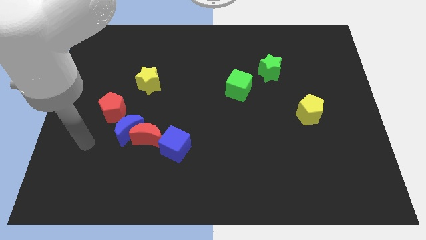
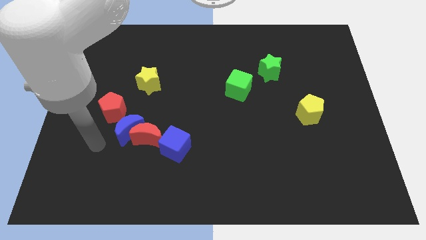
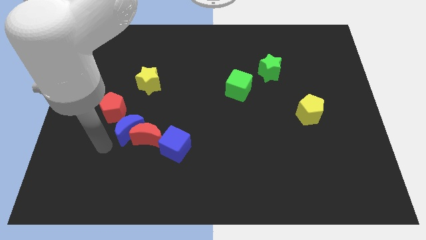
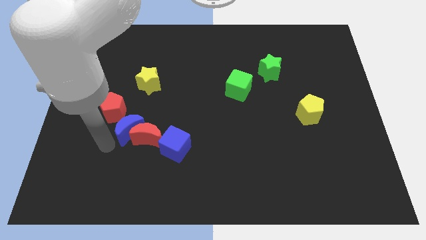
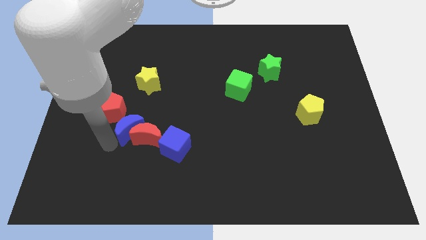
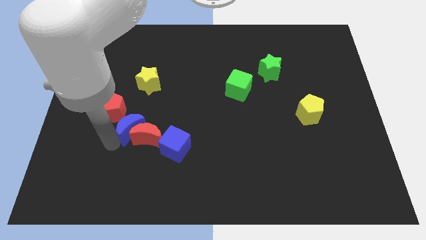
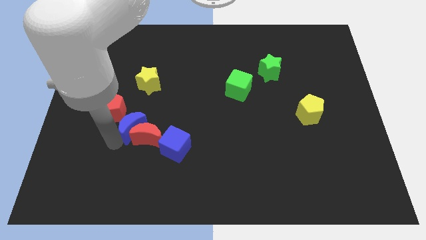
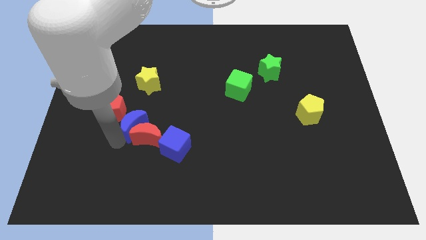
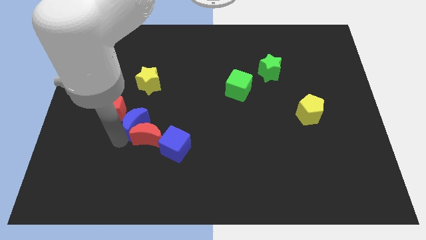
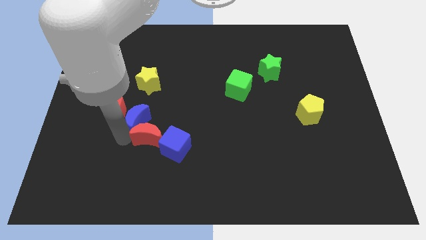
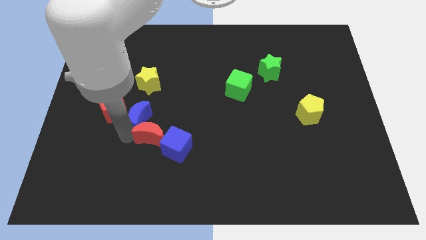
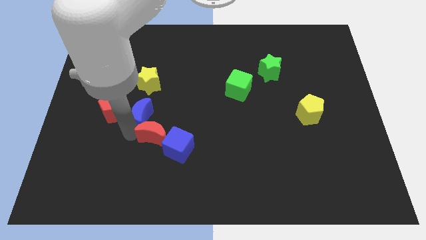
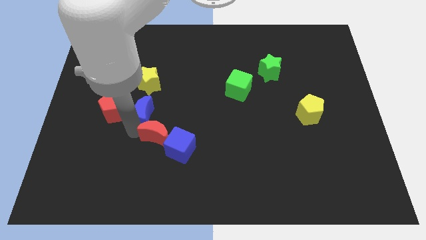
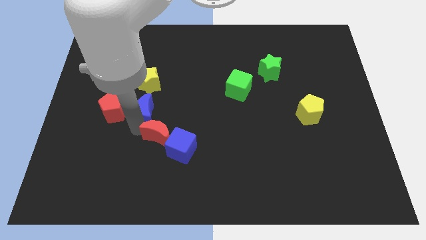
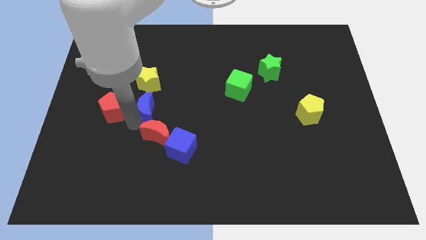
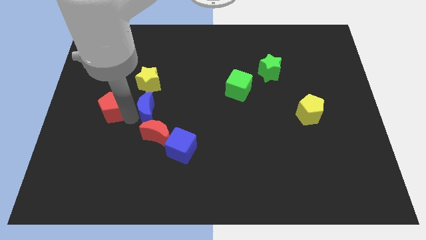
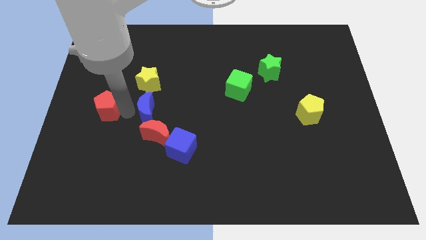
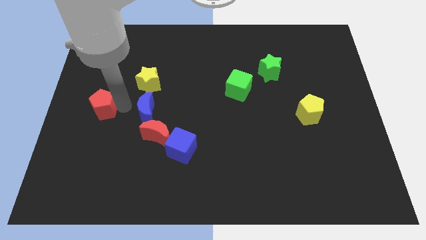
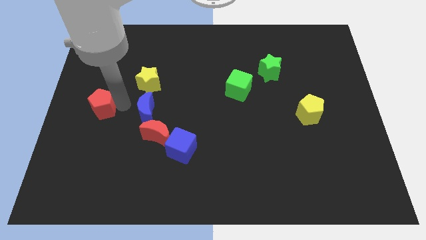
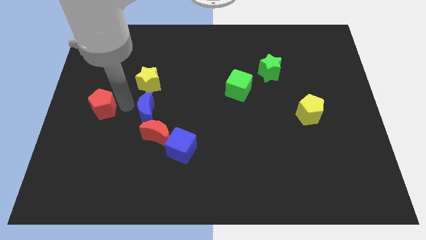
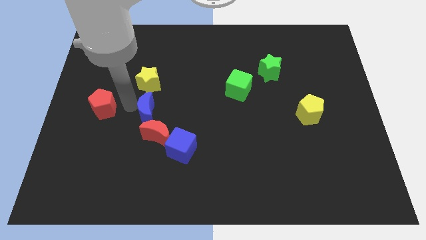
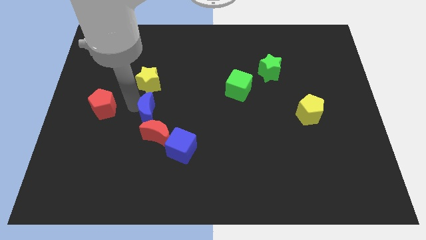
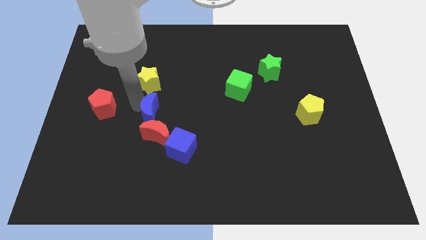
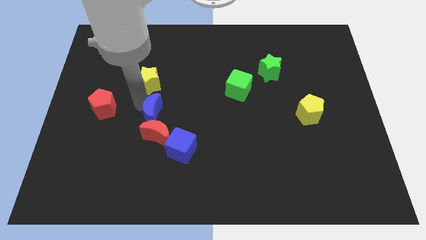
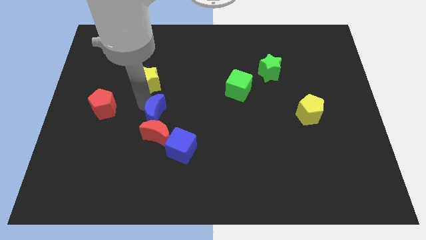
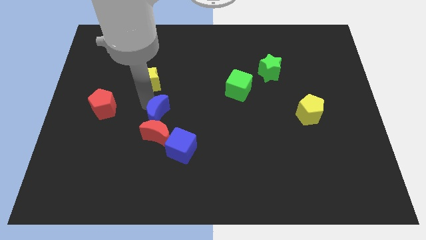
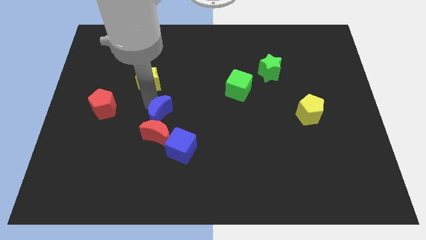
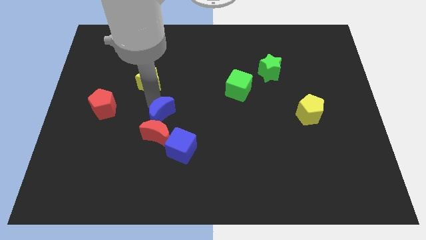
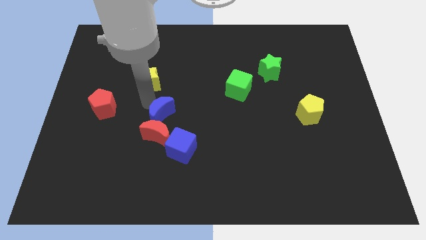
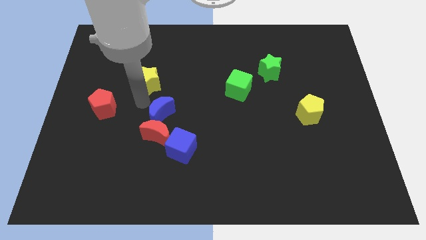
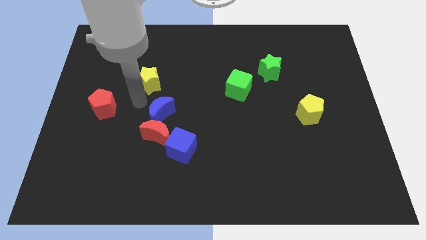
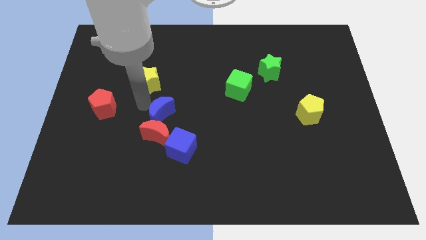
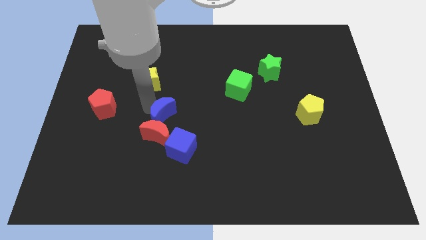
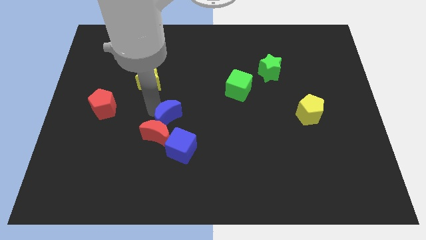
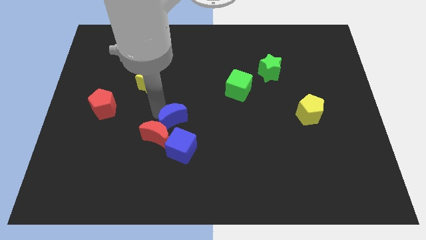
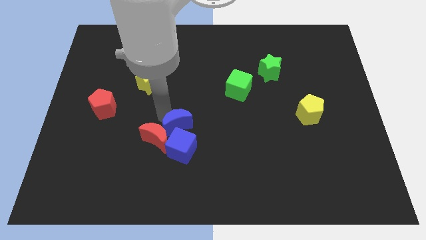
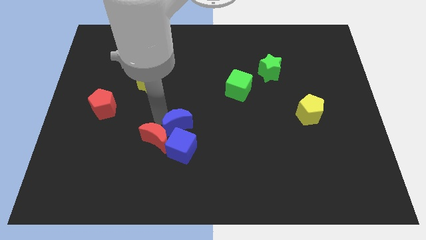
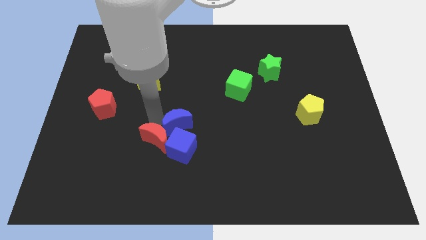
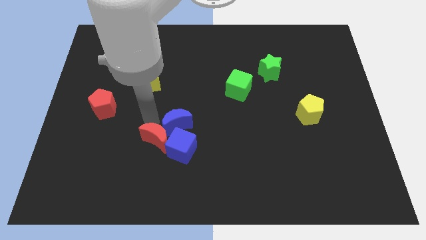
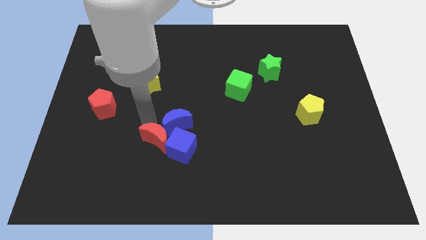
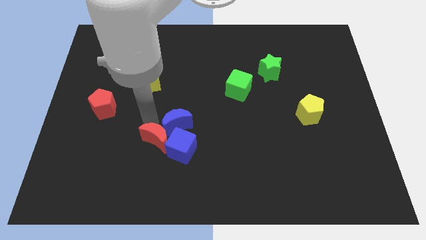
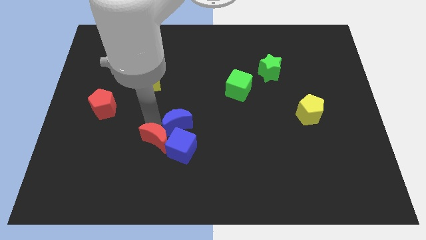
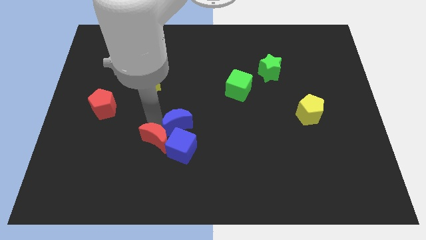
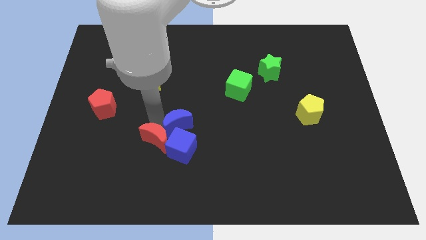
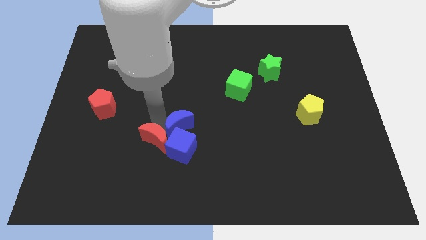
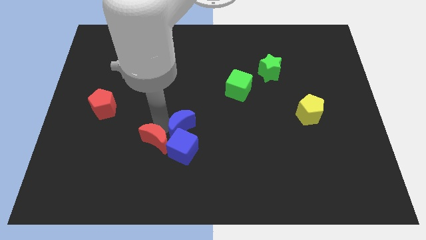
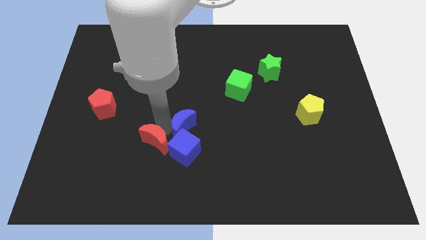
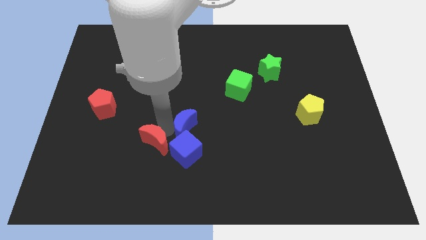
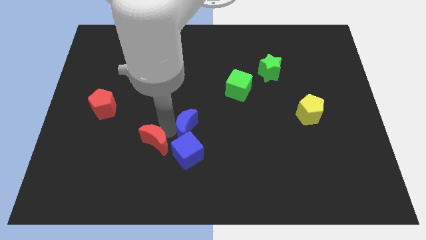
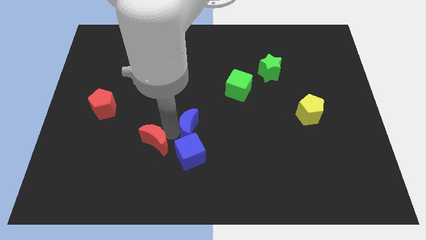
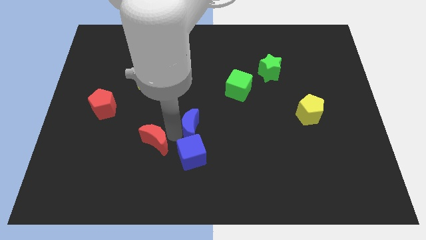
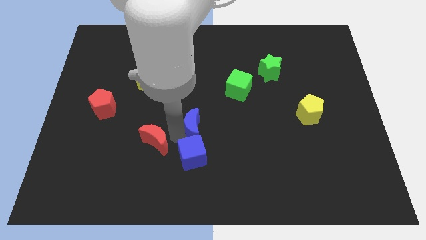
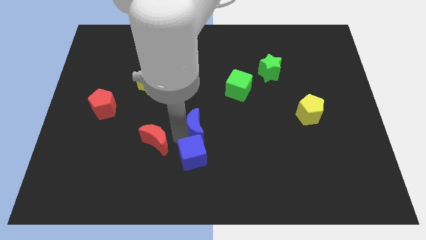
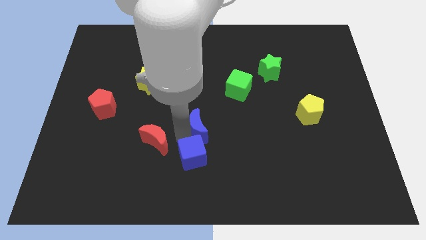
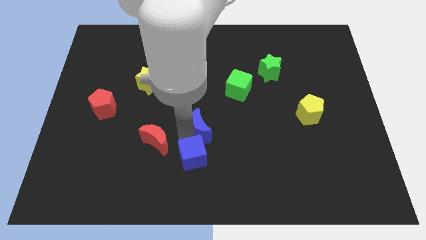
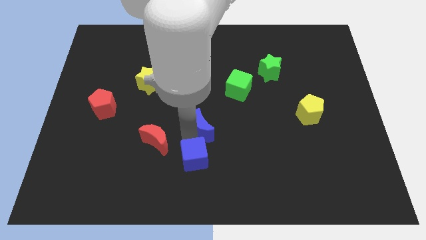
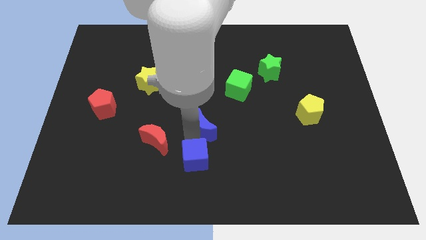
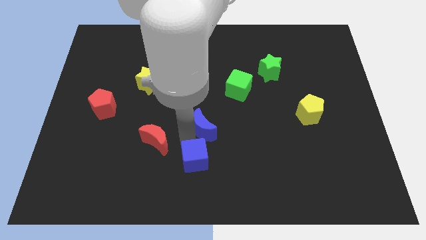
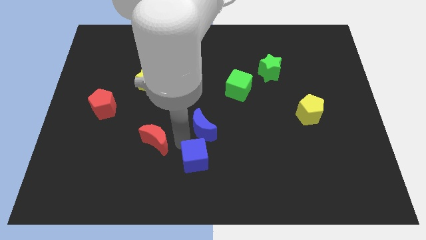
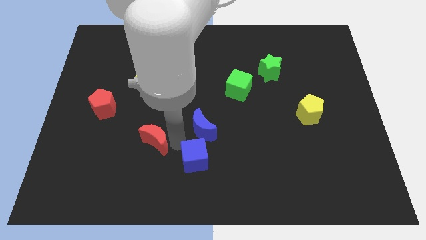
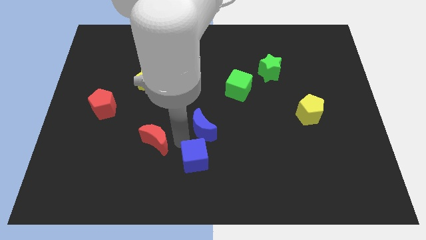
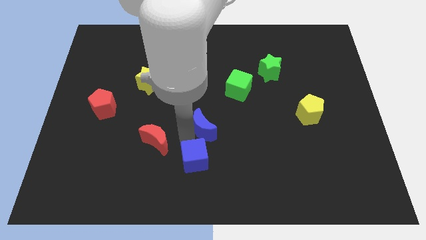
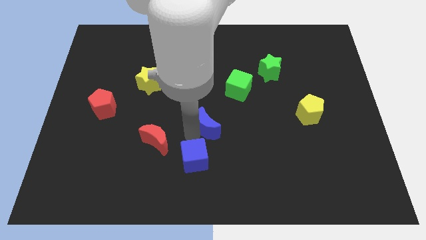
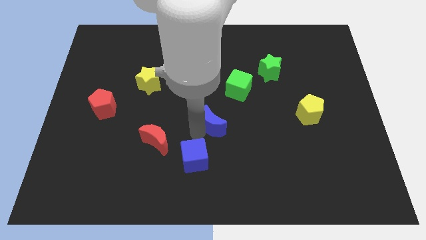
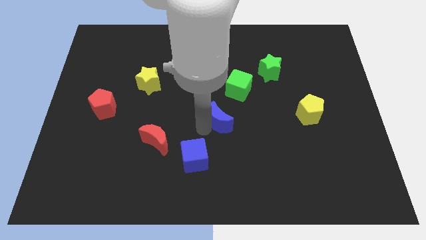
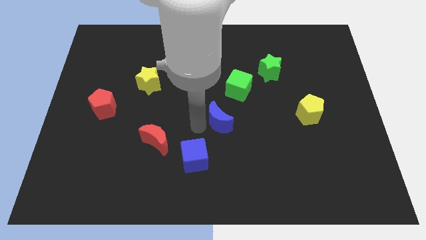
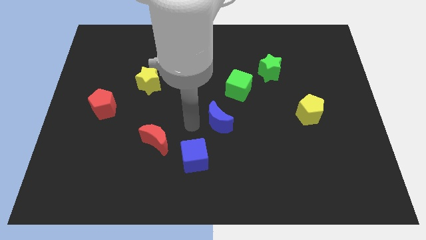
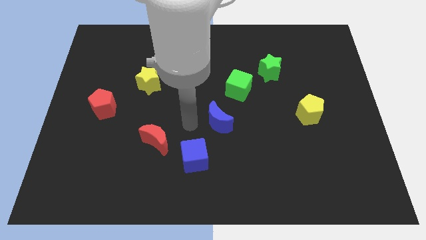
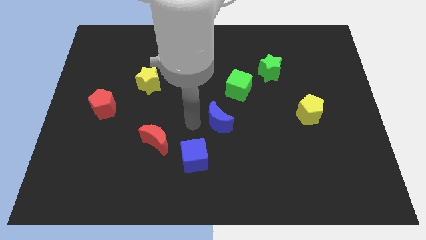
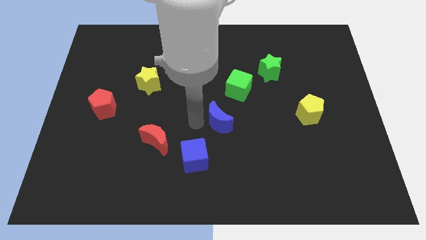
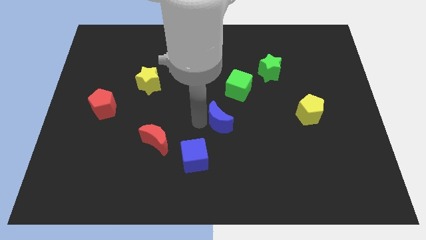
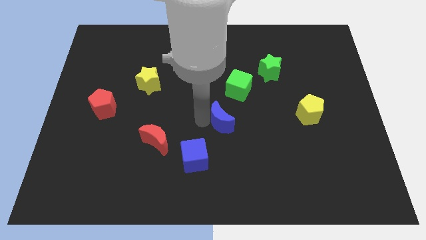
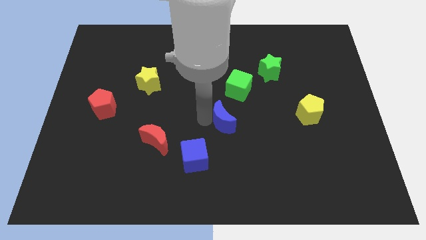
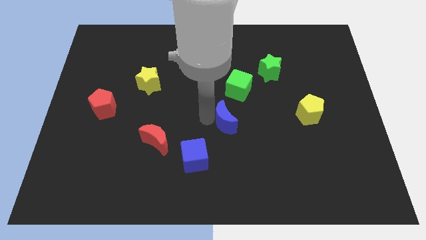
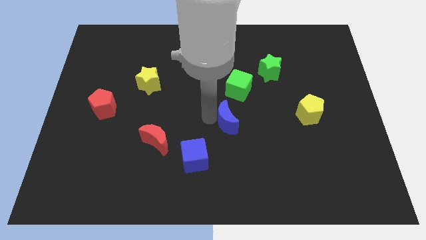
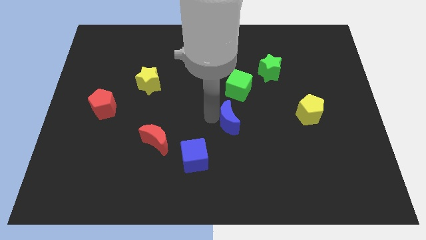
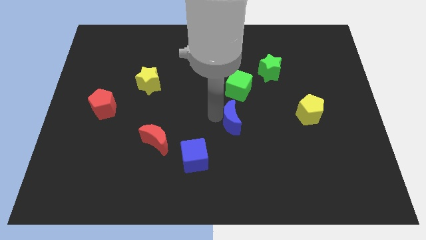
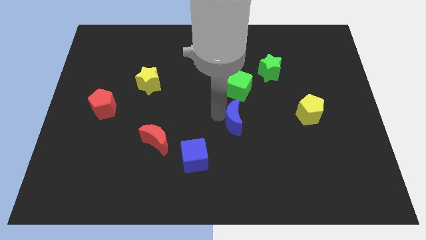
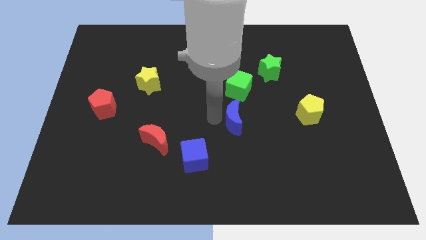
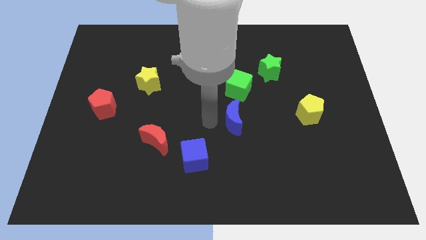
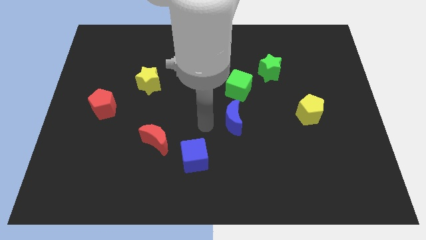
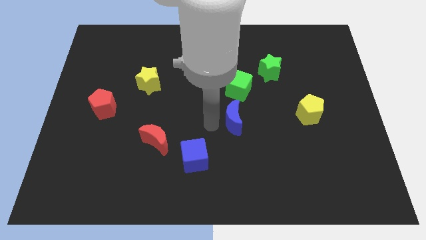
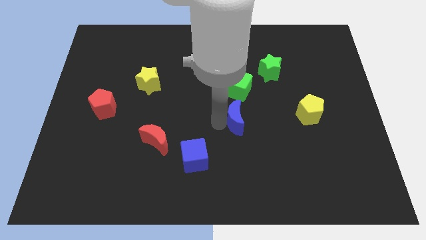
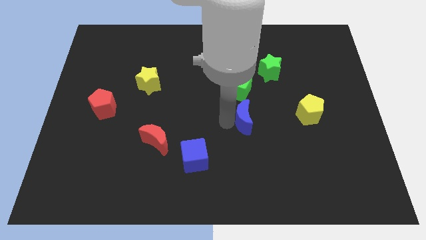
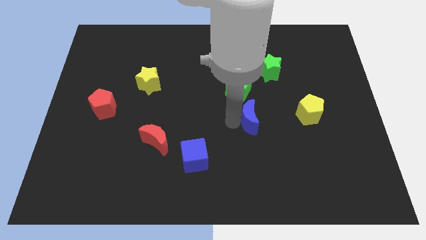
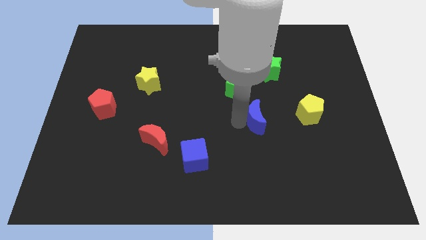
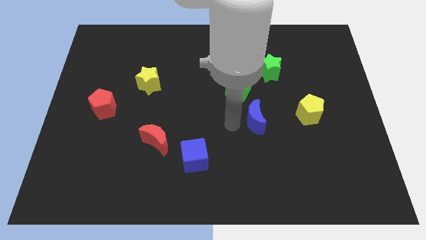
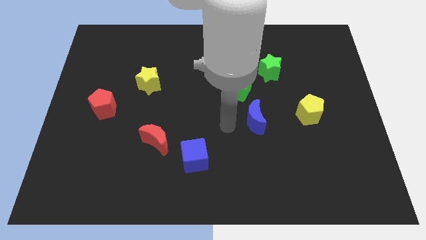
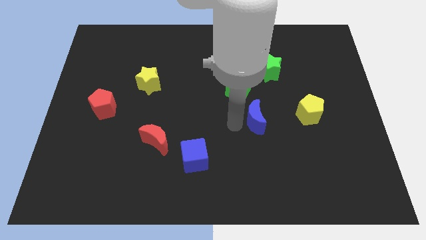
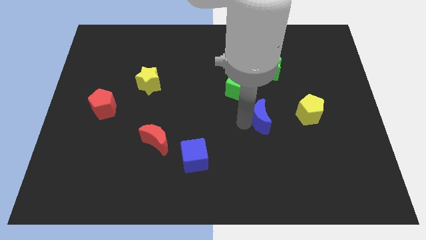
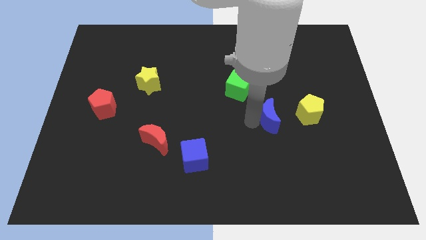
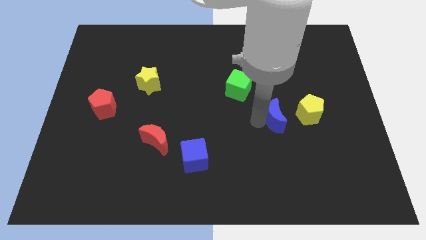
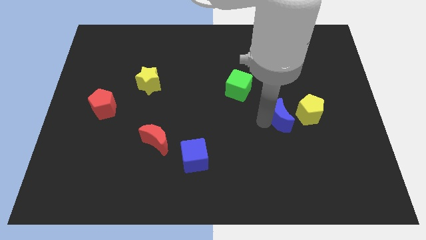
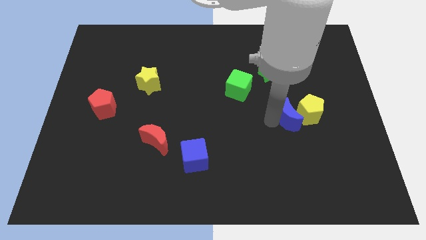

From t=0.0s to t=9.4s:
move the blue moon close to the yellow pentagon
